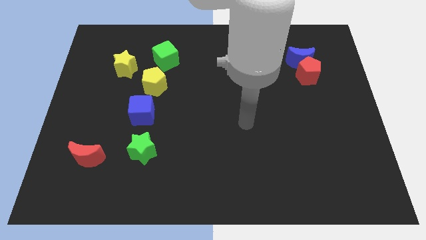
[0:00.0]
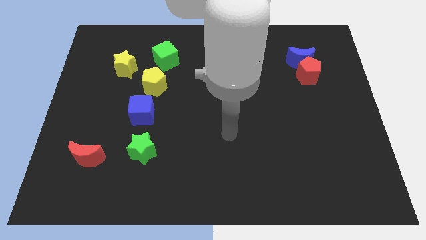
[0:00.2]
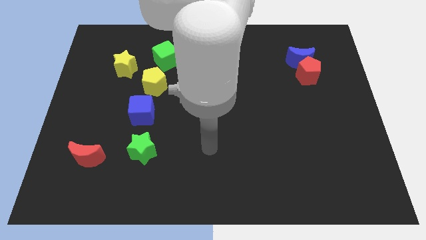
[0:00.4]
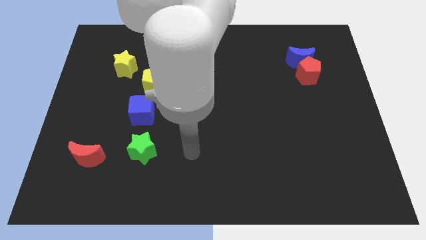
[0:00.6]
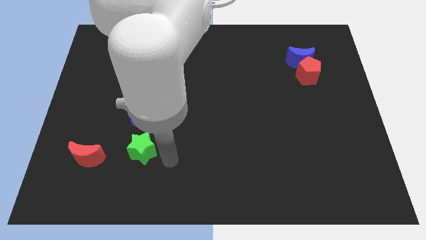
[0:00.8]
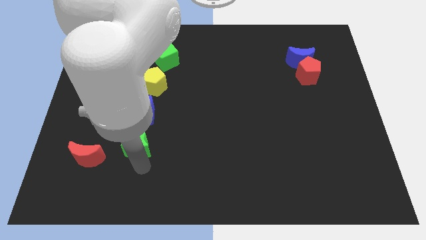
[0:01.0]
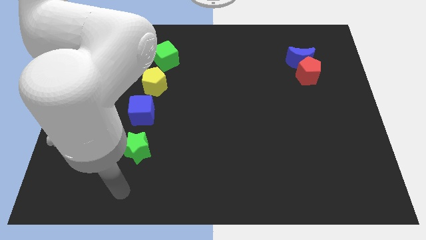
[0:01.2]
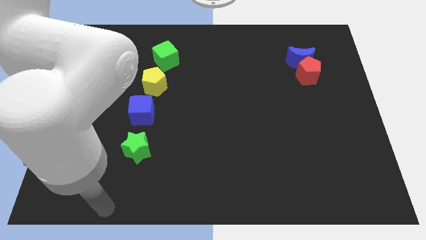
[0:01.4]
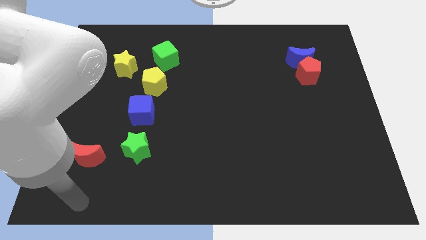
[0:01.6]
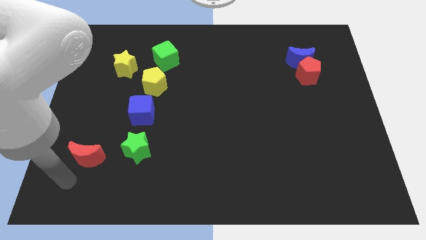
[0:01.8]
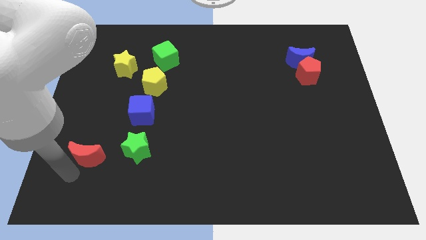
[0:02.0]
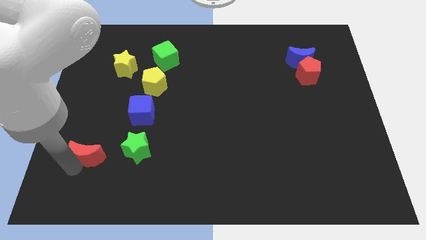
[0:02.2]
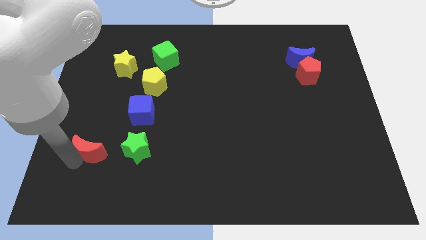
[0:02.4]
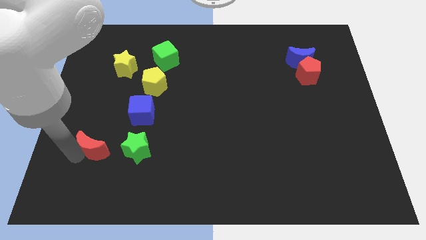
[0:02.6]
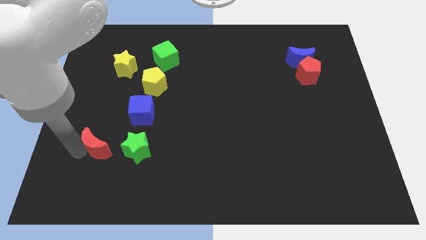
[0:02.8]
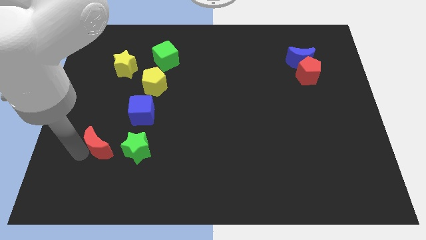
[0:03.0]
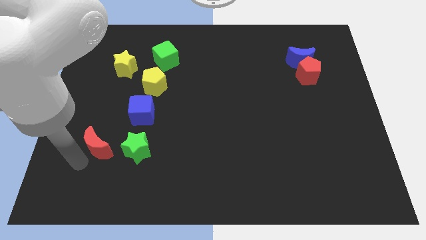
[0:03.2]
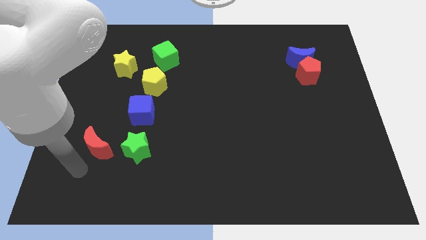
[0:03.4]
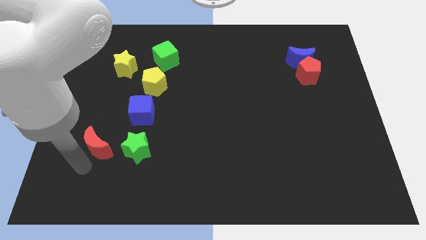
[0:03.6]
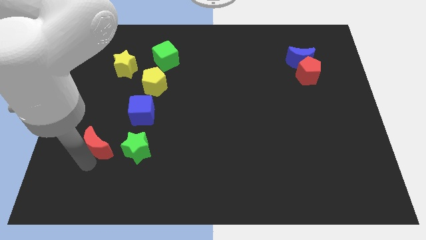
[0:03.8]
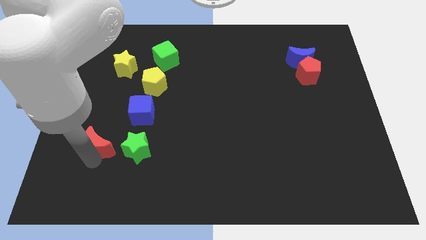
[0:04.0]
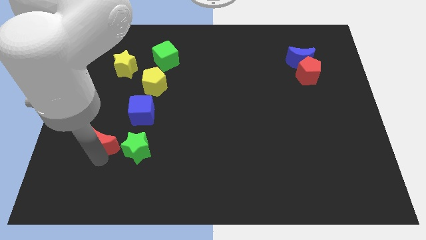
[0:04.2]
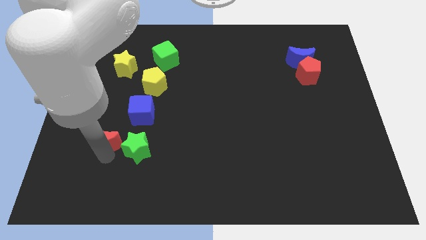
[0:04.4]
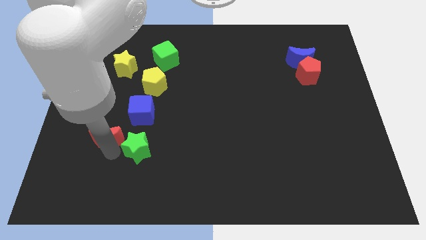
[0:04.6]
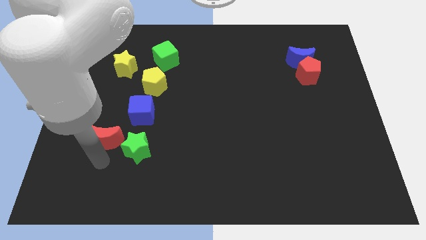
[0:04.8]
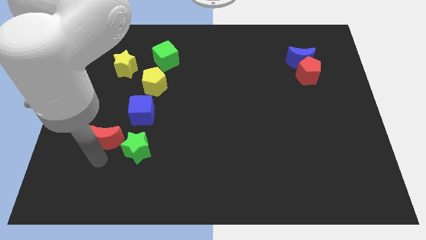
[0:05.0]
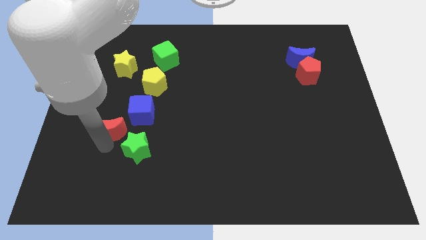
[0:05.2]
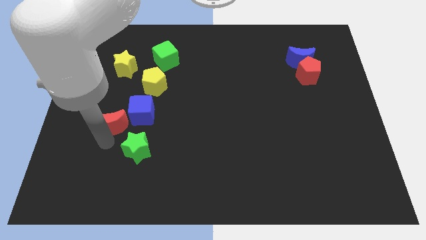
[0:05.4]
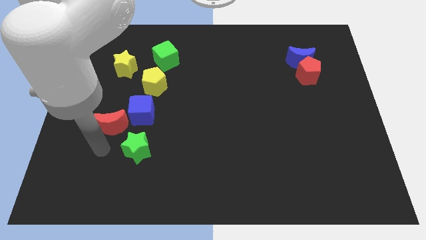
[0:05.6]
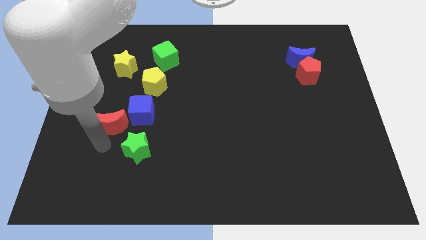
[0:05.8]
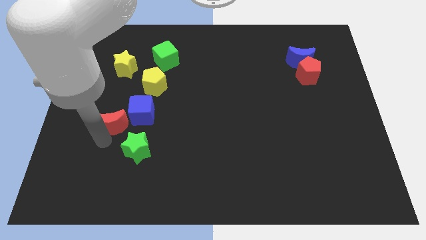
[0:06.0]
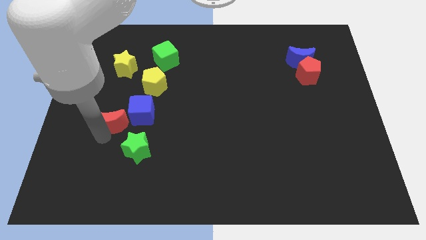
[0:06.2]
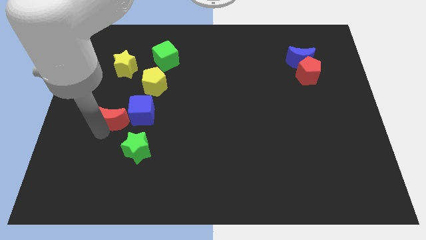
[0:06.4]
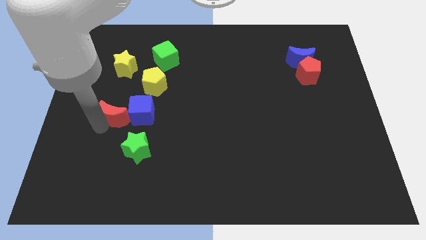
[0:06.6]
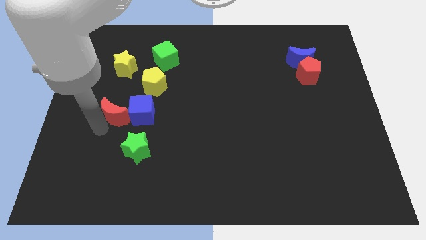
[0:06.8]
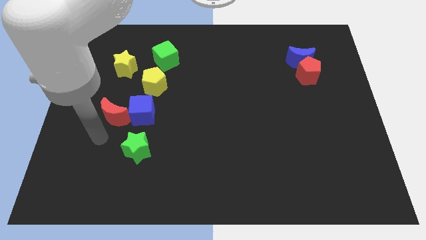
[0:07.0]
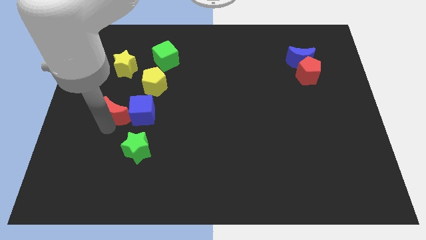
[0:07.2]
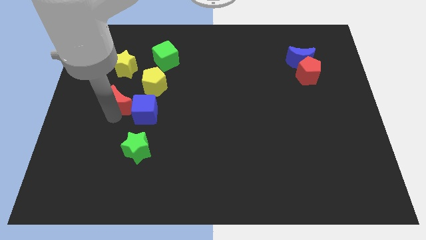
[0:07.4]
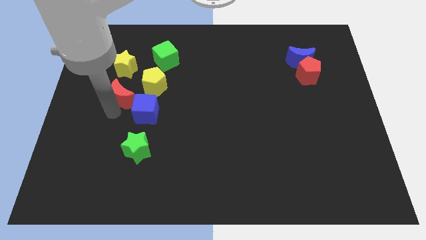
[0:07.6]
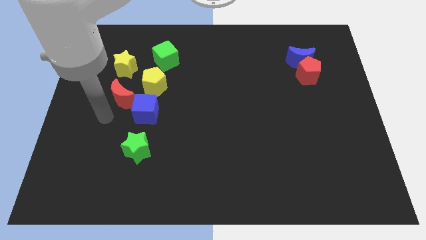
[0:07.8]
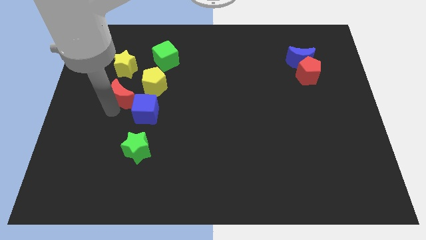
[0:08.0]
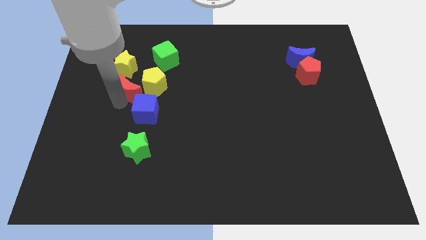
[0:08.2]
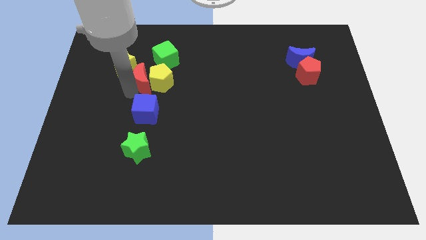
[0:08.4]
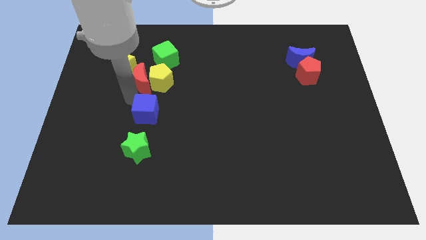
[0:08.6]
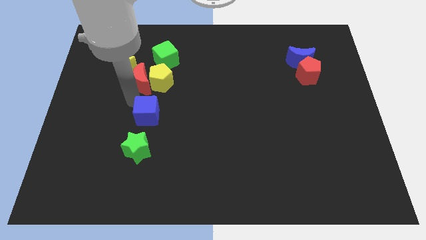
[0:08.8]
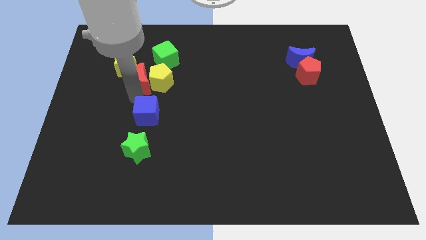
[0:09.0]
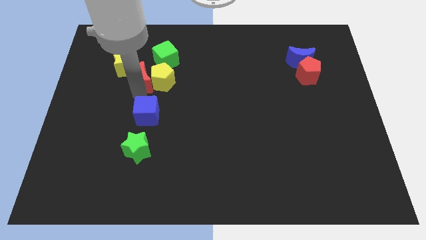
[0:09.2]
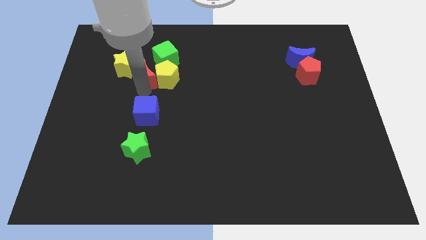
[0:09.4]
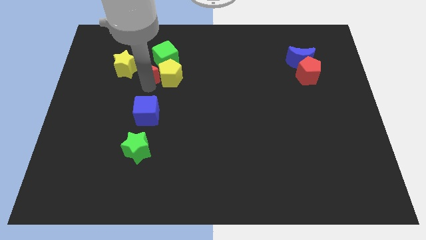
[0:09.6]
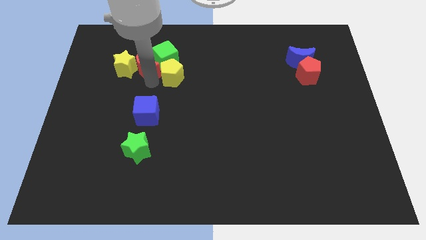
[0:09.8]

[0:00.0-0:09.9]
push the red moon towards the green cube

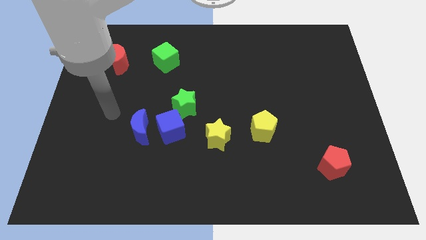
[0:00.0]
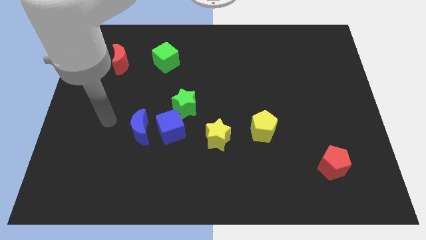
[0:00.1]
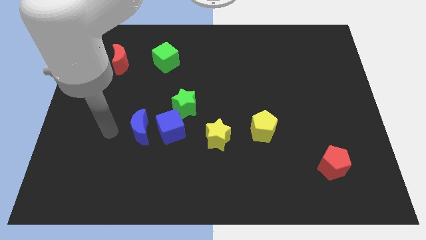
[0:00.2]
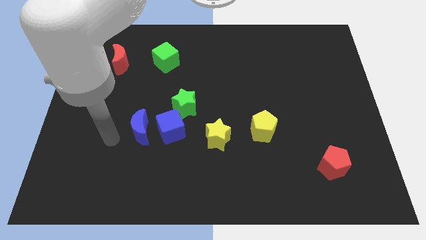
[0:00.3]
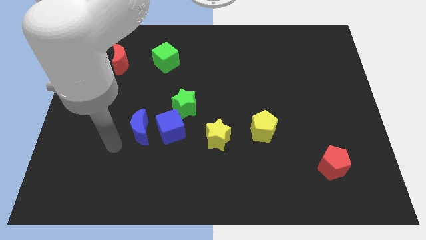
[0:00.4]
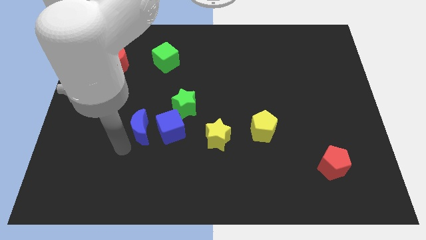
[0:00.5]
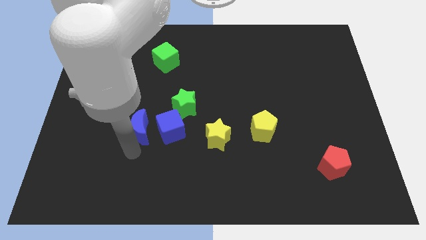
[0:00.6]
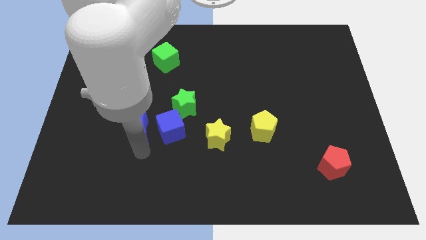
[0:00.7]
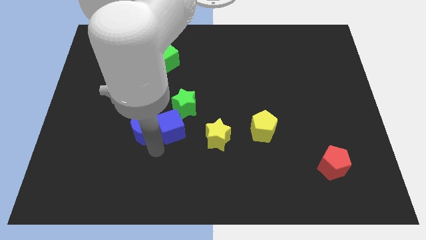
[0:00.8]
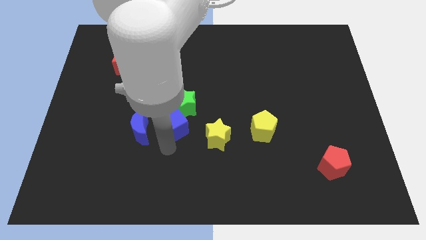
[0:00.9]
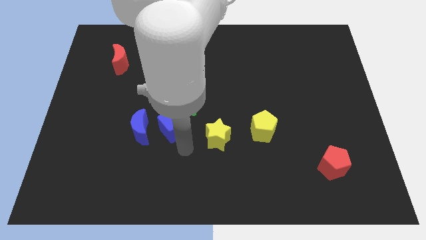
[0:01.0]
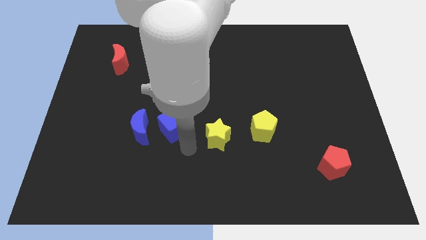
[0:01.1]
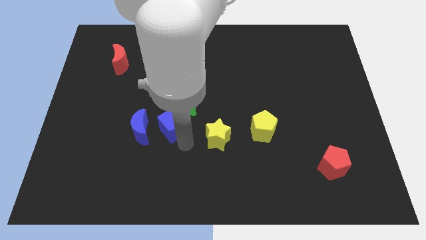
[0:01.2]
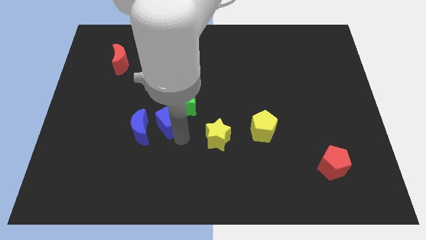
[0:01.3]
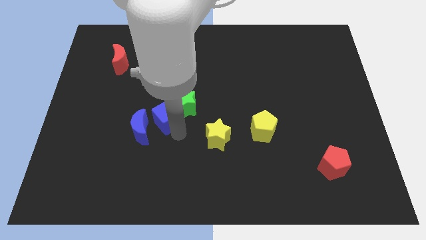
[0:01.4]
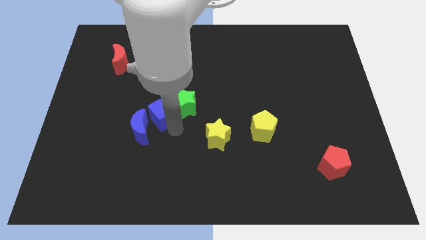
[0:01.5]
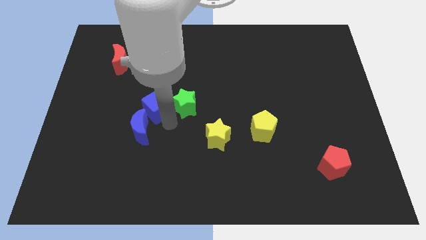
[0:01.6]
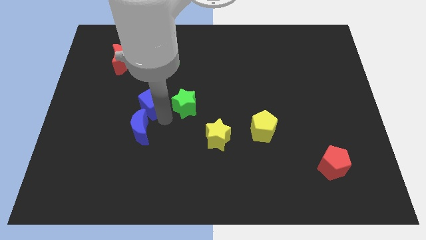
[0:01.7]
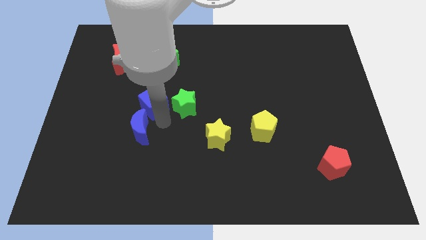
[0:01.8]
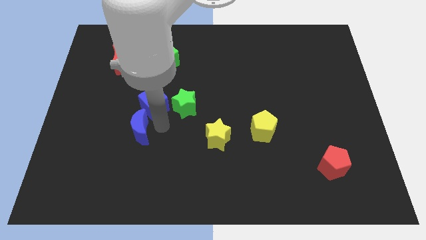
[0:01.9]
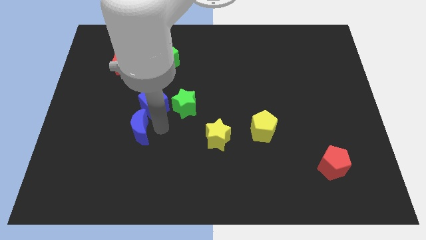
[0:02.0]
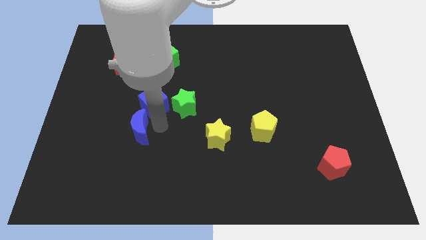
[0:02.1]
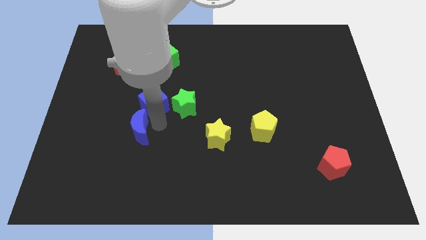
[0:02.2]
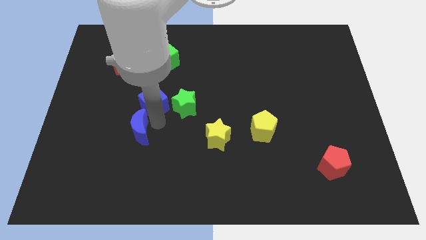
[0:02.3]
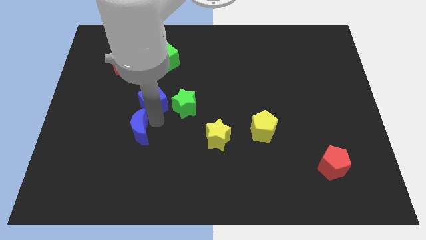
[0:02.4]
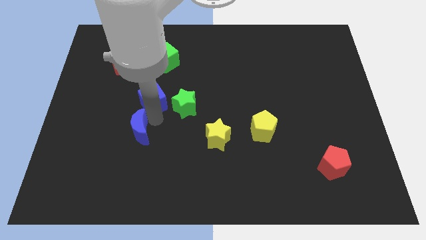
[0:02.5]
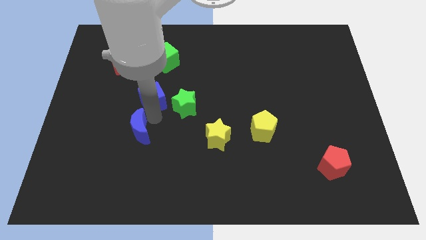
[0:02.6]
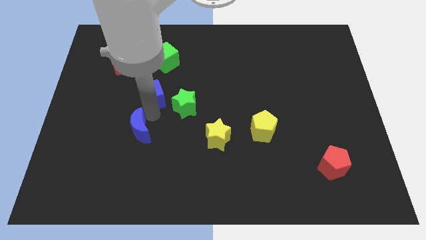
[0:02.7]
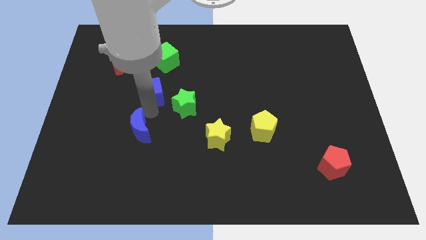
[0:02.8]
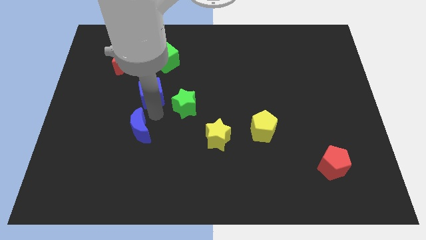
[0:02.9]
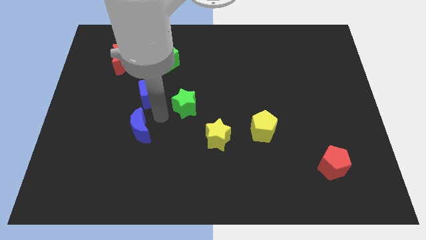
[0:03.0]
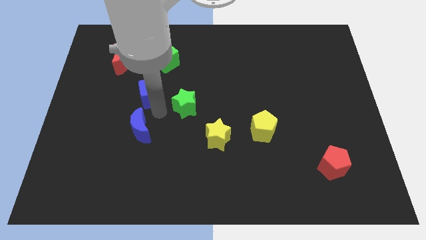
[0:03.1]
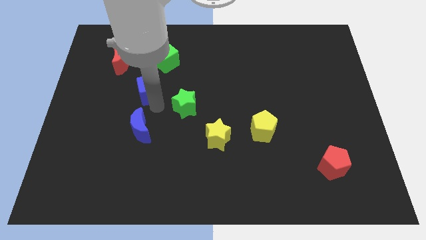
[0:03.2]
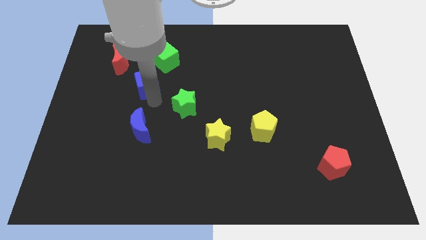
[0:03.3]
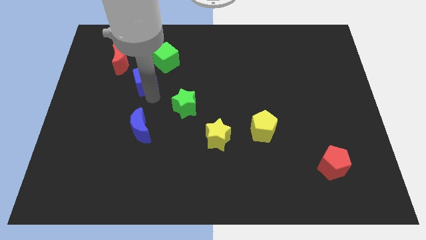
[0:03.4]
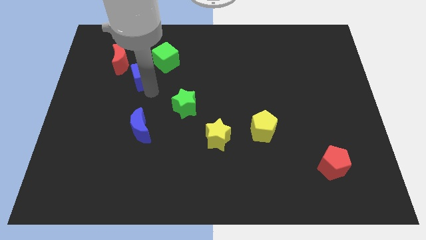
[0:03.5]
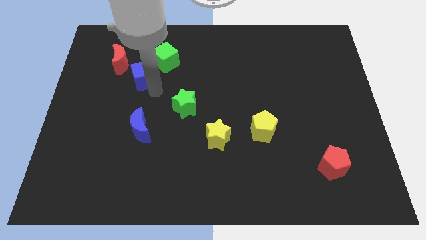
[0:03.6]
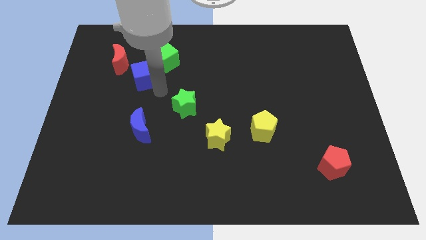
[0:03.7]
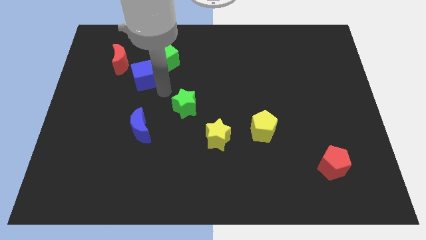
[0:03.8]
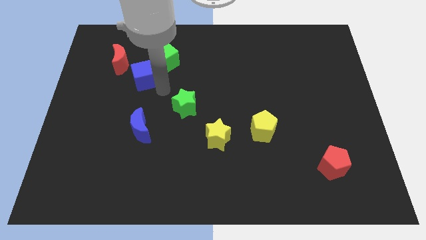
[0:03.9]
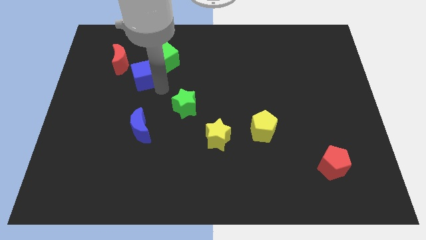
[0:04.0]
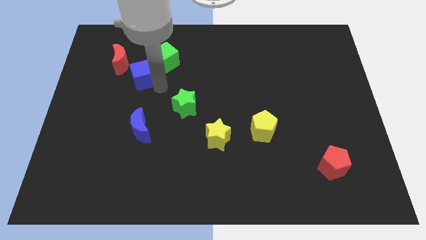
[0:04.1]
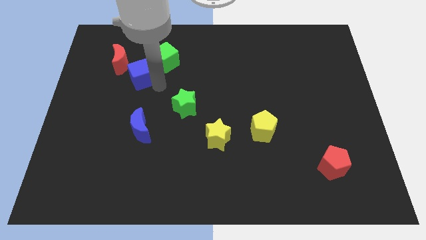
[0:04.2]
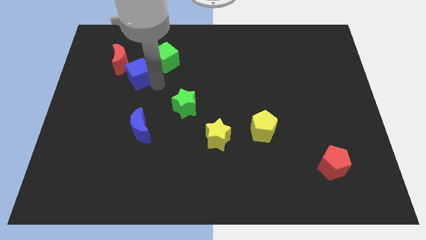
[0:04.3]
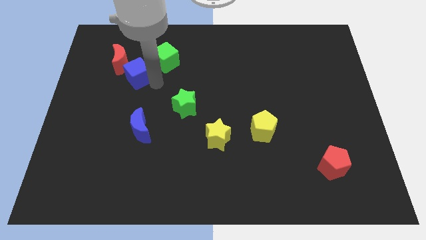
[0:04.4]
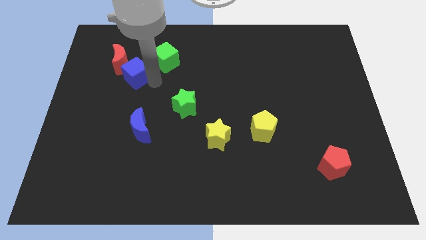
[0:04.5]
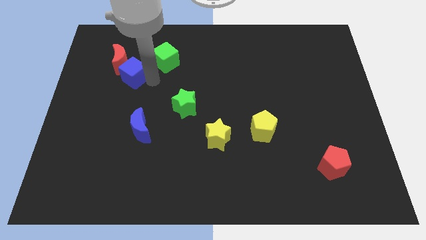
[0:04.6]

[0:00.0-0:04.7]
move the blue cube to the red moon
